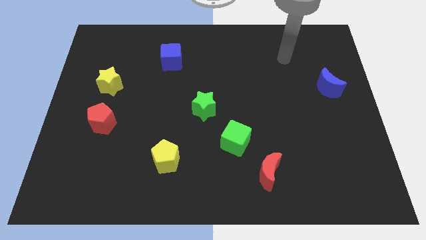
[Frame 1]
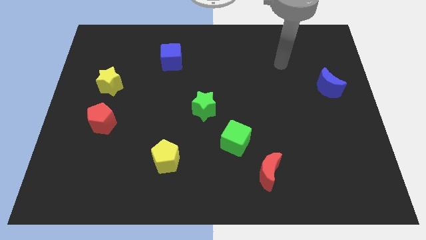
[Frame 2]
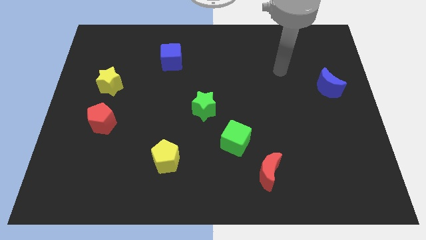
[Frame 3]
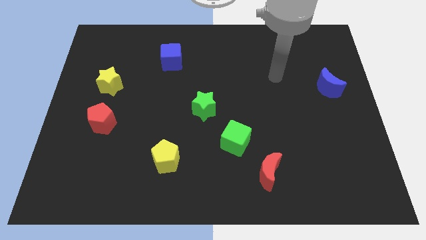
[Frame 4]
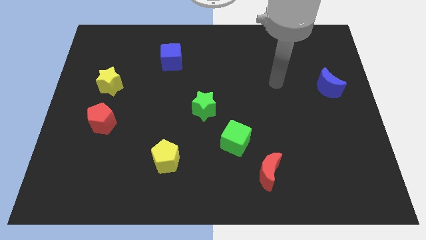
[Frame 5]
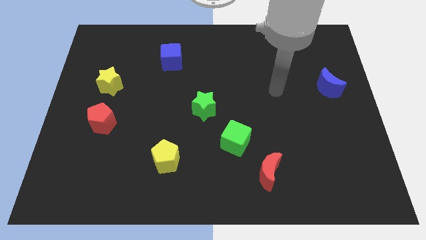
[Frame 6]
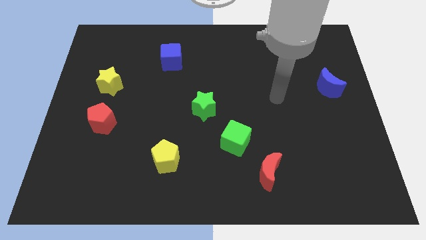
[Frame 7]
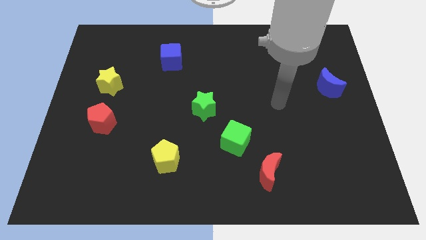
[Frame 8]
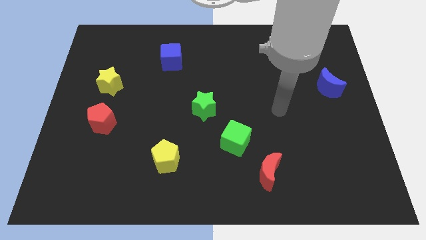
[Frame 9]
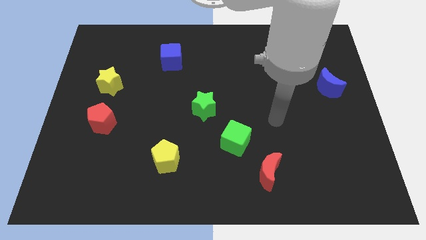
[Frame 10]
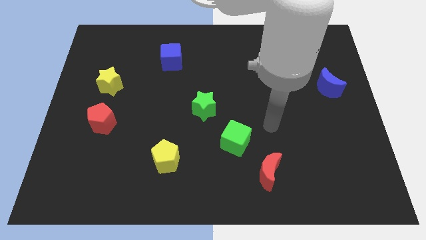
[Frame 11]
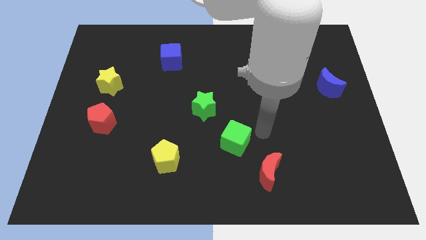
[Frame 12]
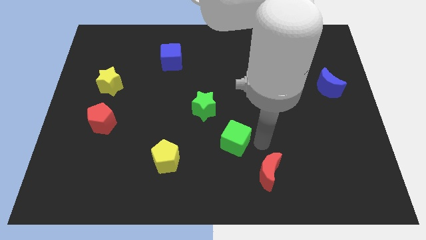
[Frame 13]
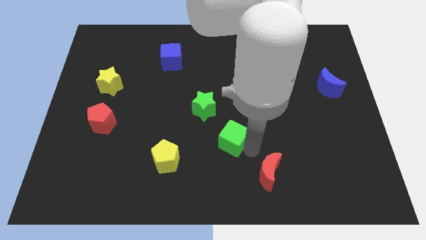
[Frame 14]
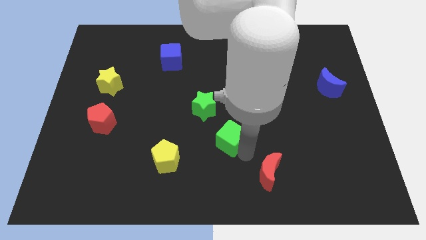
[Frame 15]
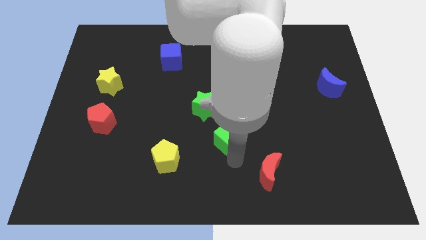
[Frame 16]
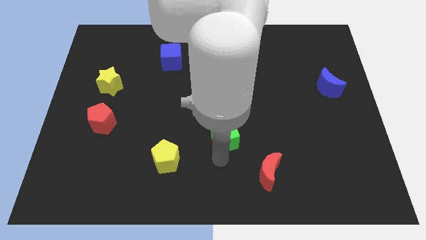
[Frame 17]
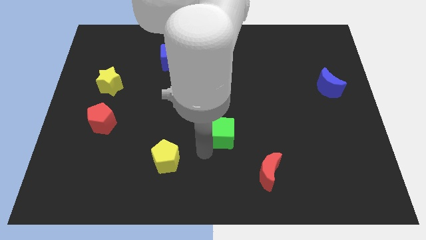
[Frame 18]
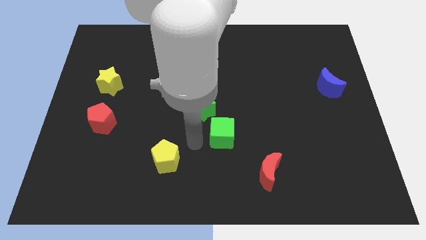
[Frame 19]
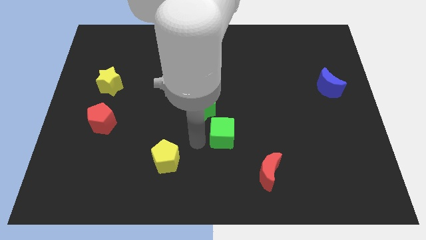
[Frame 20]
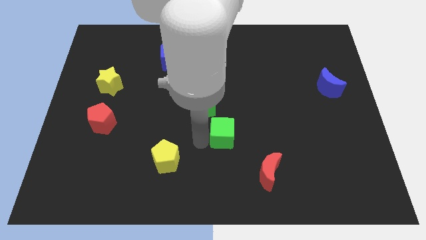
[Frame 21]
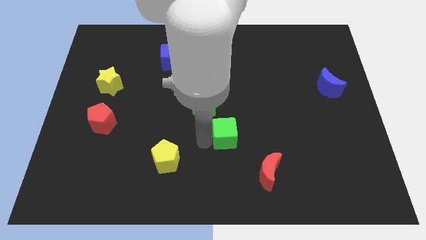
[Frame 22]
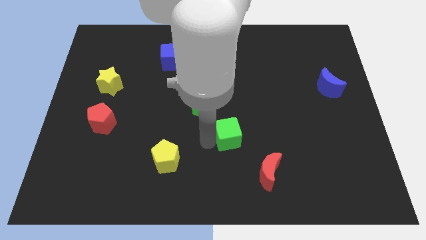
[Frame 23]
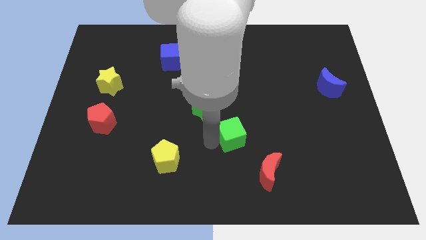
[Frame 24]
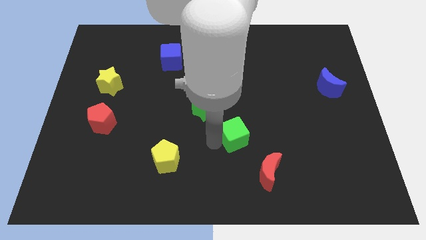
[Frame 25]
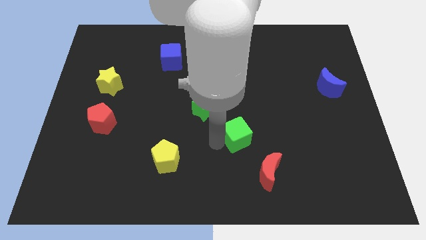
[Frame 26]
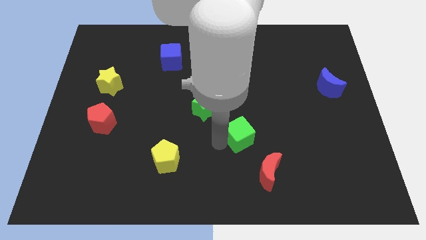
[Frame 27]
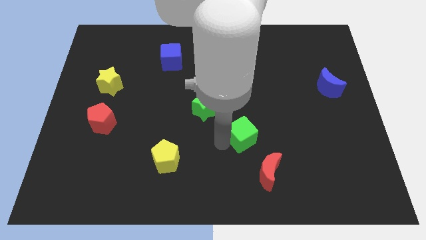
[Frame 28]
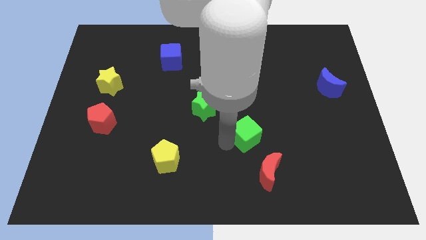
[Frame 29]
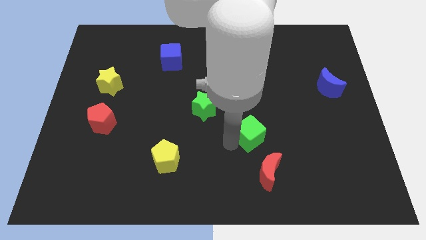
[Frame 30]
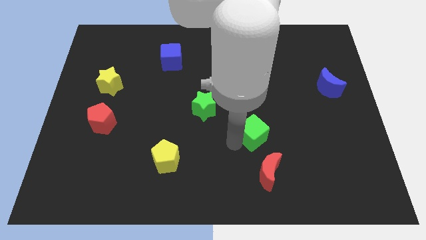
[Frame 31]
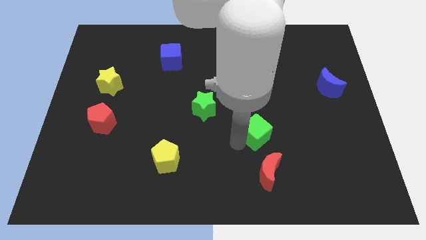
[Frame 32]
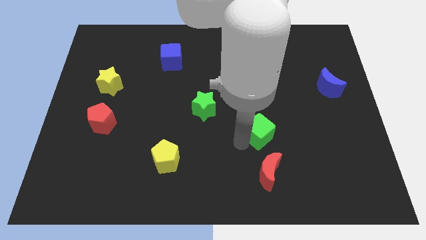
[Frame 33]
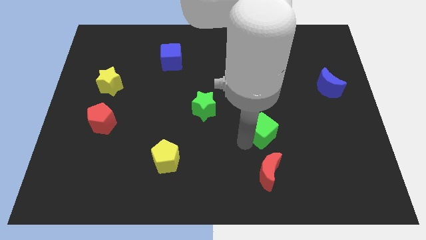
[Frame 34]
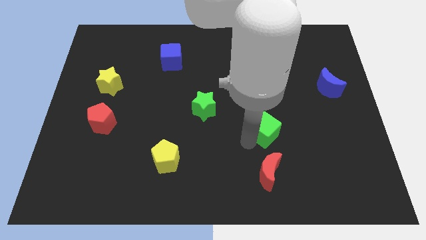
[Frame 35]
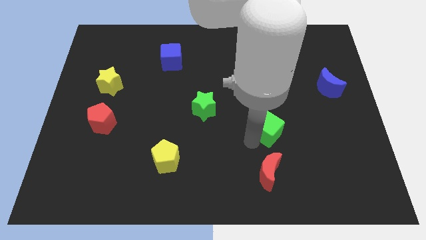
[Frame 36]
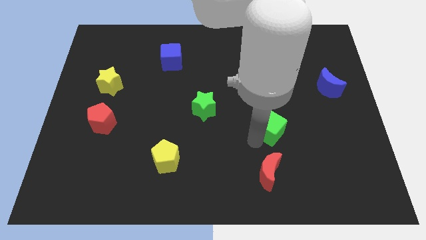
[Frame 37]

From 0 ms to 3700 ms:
push the green cube a little upwards and right diagonally

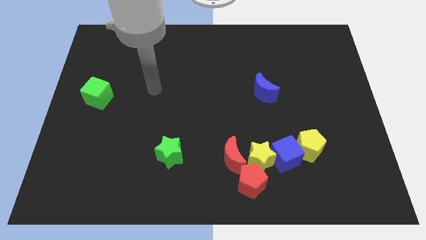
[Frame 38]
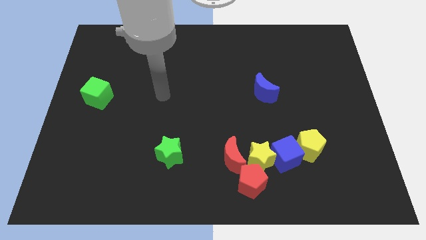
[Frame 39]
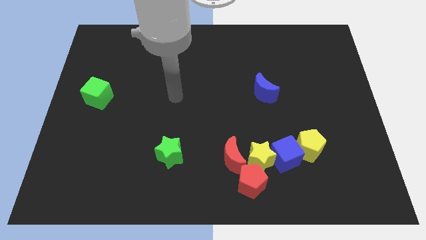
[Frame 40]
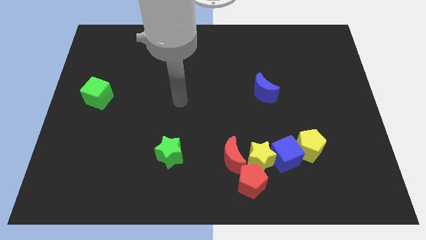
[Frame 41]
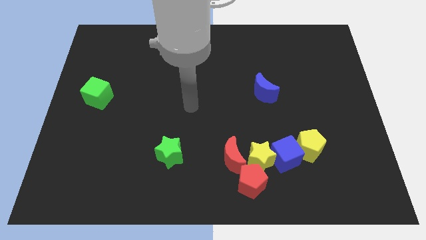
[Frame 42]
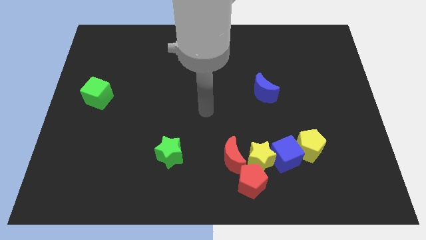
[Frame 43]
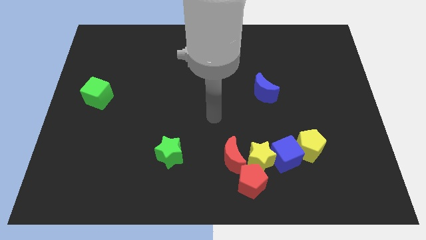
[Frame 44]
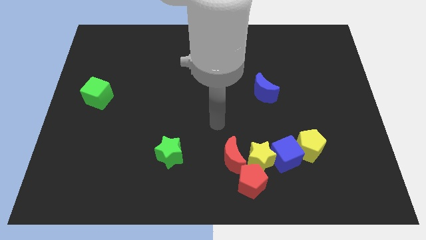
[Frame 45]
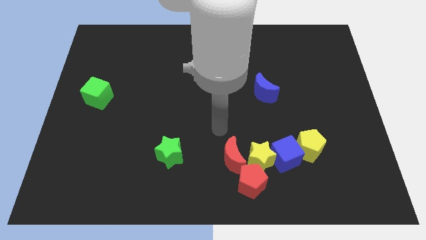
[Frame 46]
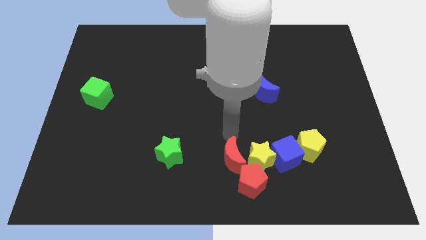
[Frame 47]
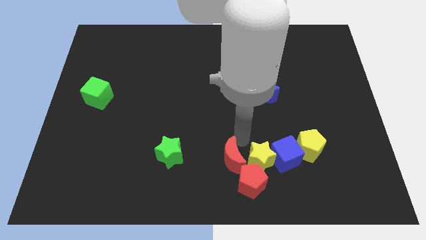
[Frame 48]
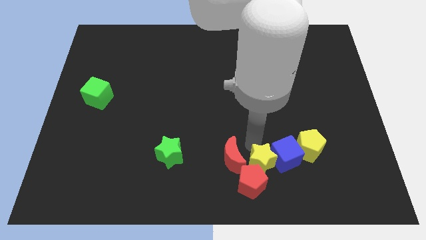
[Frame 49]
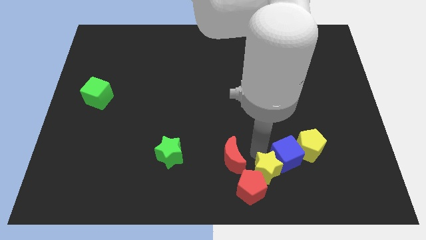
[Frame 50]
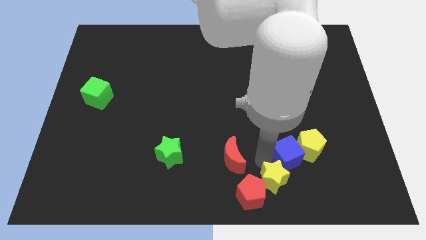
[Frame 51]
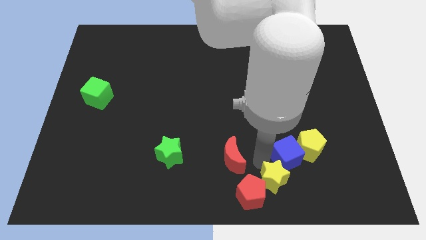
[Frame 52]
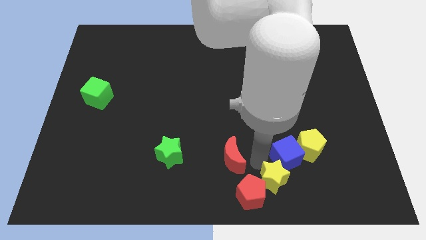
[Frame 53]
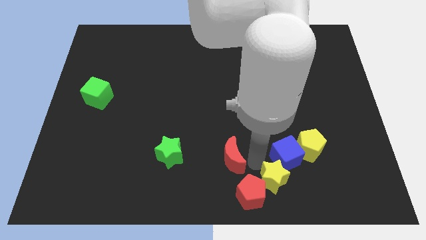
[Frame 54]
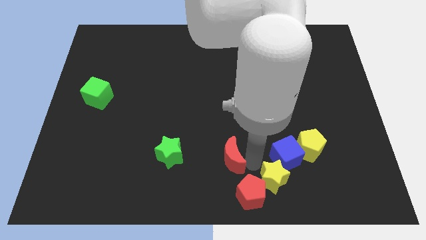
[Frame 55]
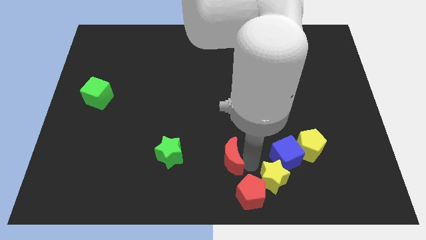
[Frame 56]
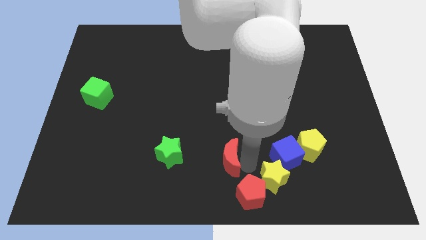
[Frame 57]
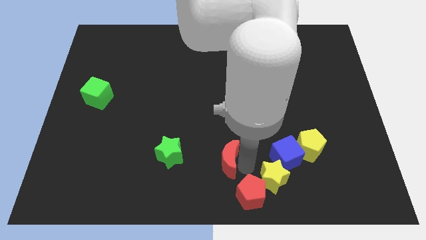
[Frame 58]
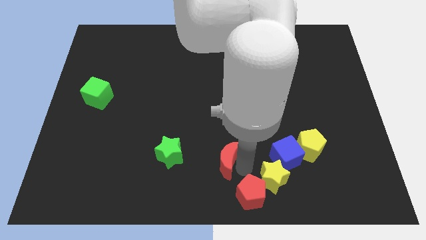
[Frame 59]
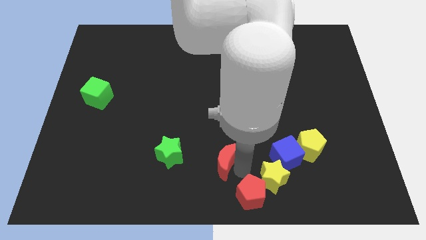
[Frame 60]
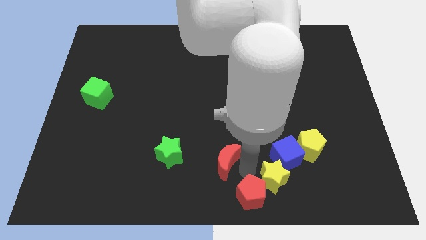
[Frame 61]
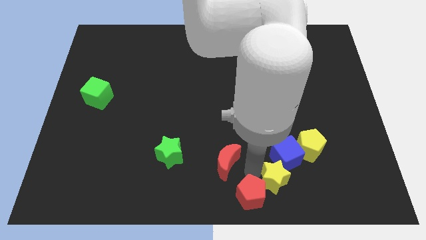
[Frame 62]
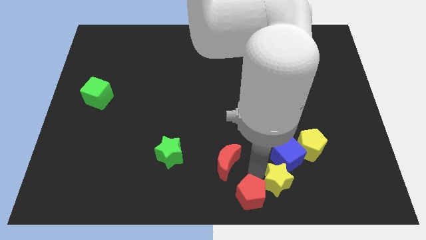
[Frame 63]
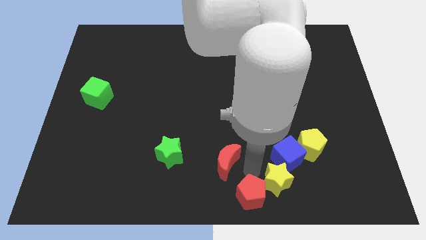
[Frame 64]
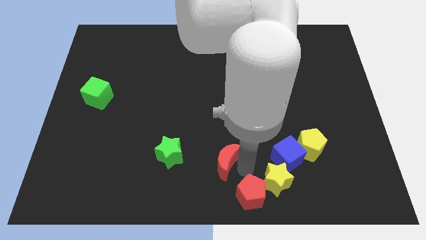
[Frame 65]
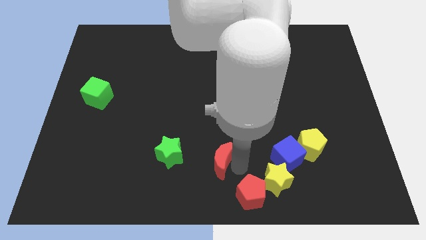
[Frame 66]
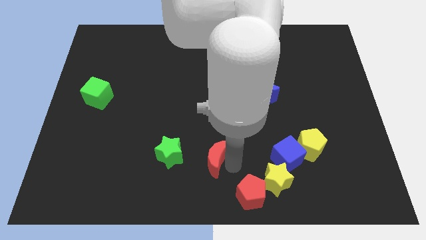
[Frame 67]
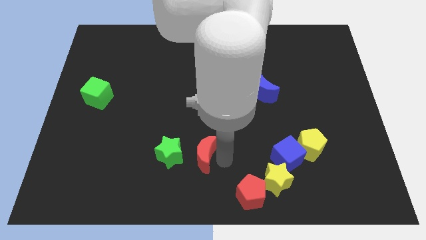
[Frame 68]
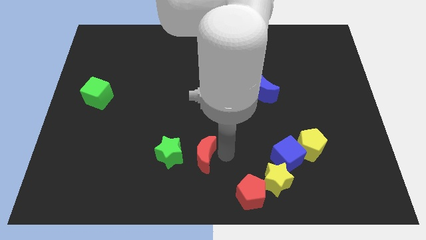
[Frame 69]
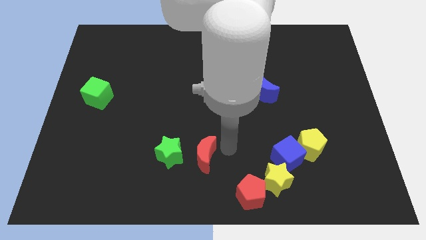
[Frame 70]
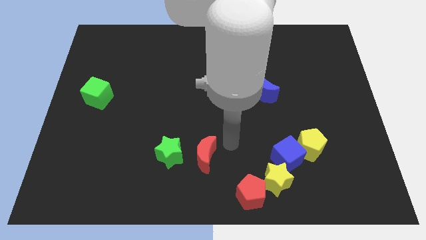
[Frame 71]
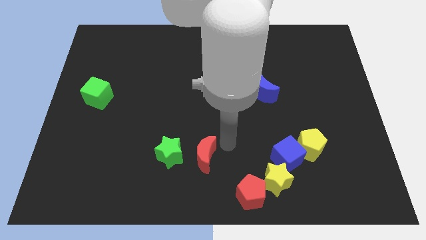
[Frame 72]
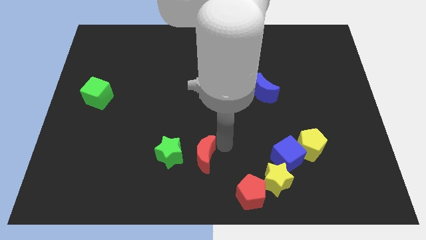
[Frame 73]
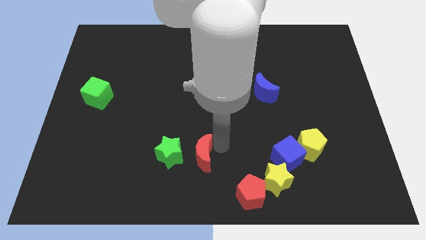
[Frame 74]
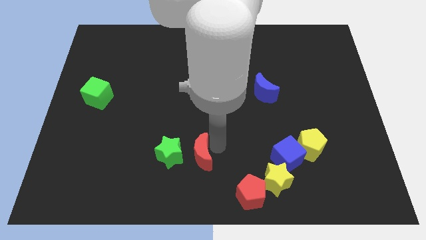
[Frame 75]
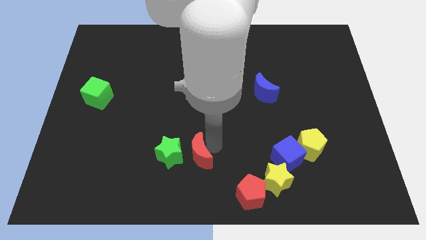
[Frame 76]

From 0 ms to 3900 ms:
push the red moon a little left

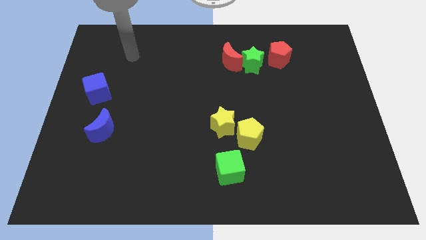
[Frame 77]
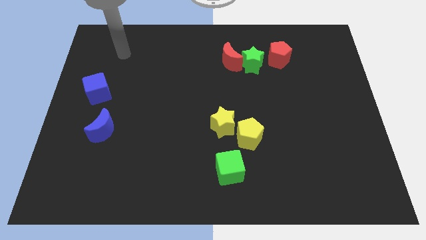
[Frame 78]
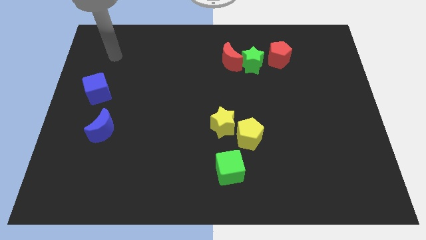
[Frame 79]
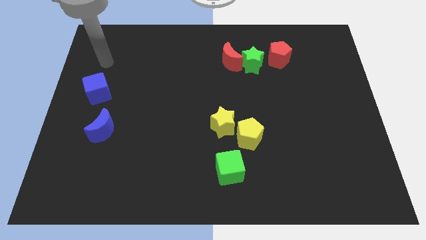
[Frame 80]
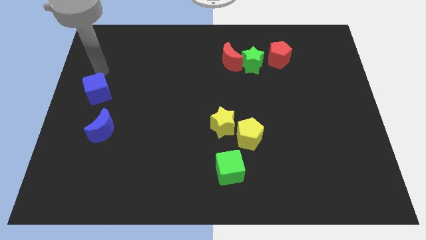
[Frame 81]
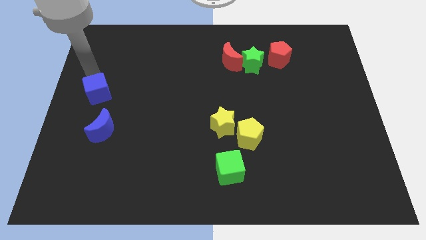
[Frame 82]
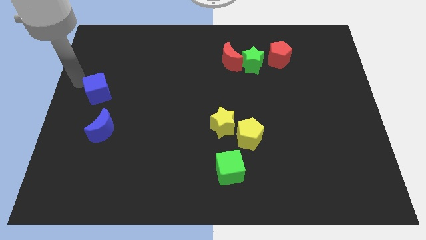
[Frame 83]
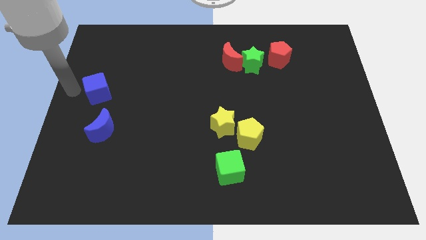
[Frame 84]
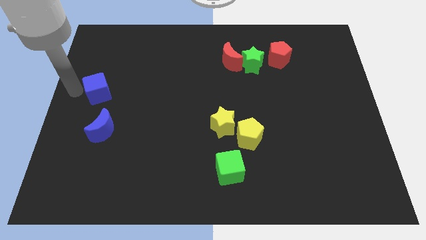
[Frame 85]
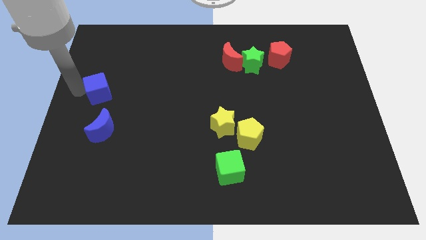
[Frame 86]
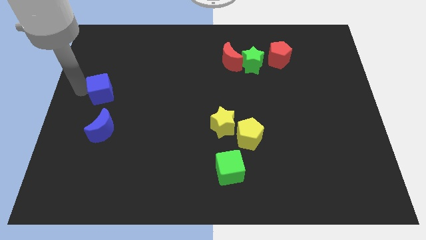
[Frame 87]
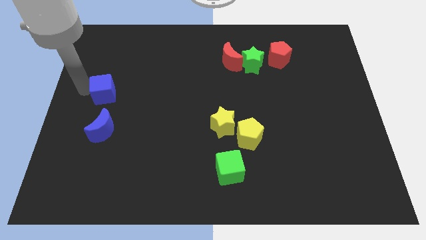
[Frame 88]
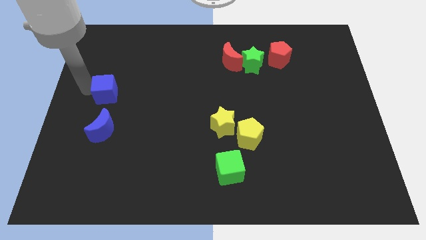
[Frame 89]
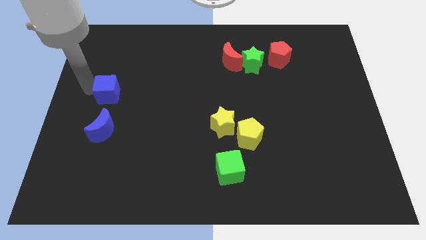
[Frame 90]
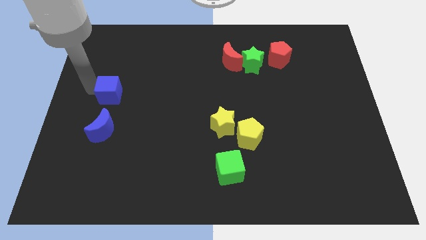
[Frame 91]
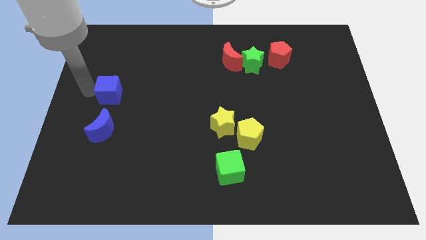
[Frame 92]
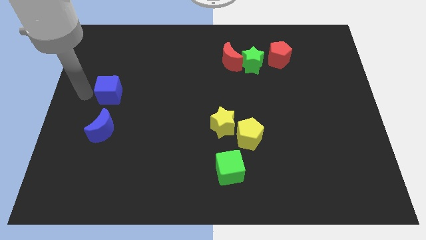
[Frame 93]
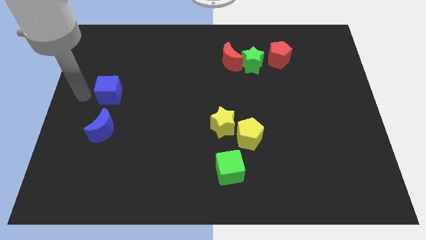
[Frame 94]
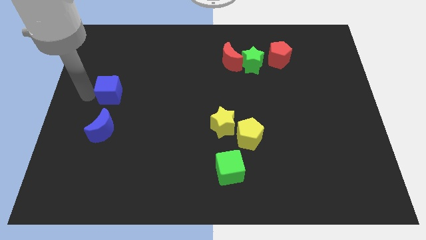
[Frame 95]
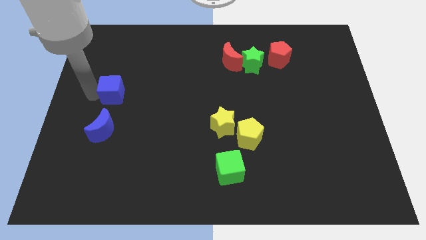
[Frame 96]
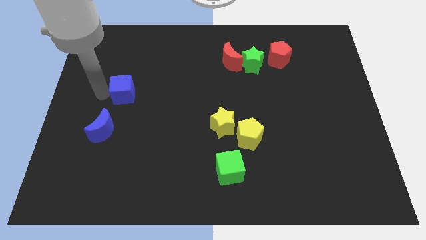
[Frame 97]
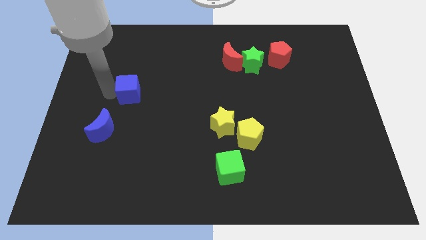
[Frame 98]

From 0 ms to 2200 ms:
slightly slide the blue cube to the right
